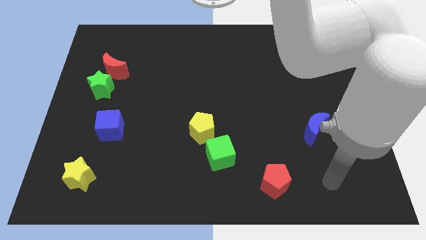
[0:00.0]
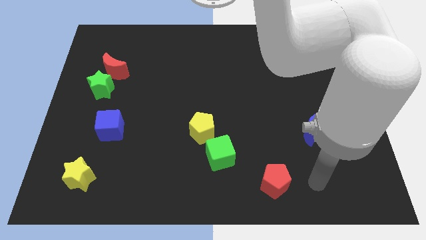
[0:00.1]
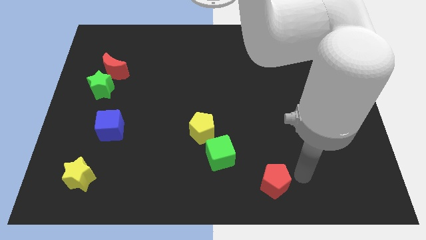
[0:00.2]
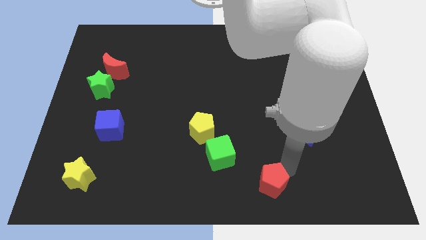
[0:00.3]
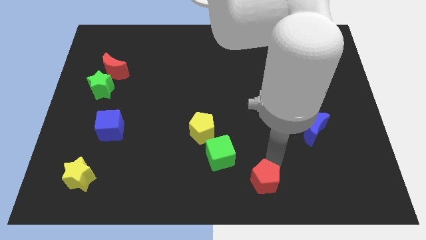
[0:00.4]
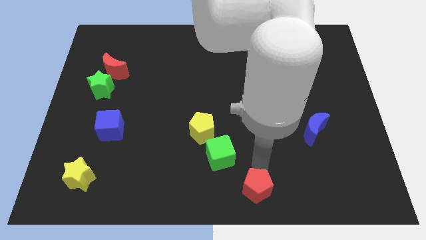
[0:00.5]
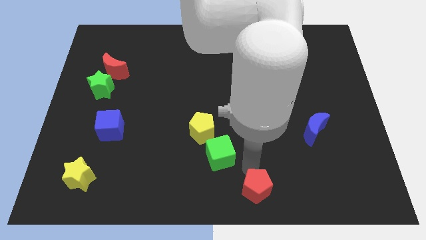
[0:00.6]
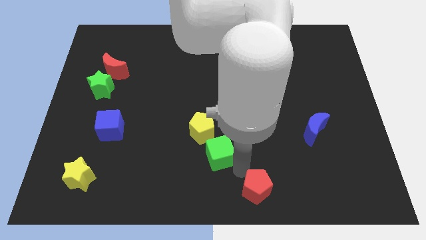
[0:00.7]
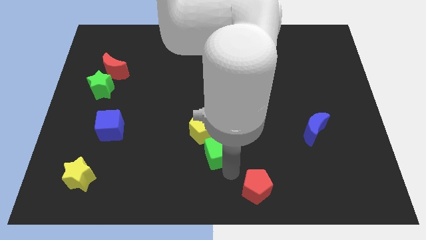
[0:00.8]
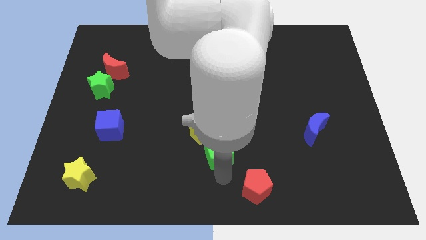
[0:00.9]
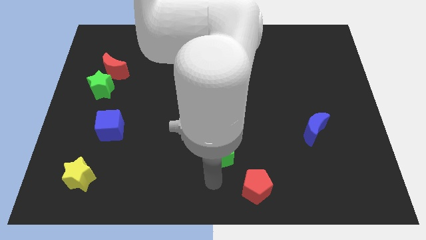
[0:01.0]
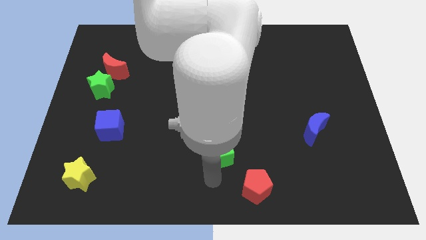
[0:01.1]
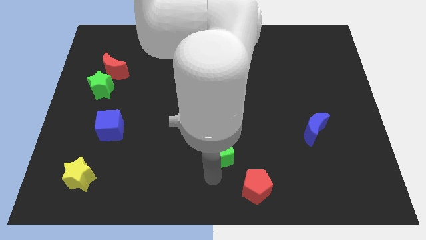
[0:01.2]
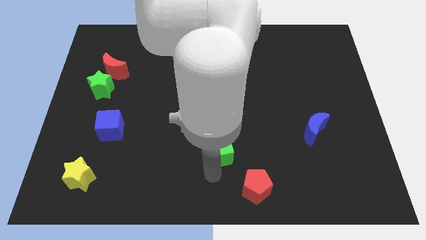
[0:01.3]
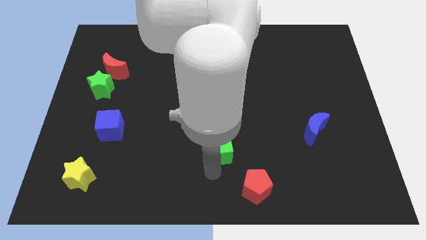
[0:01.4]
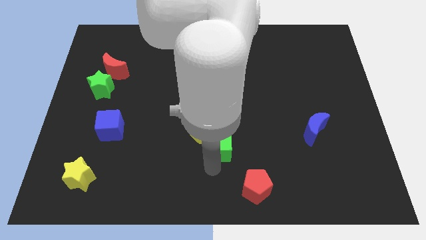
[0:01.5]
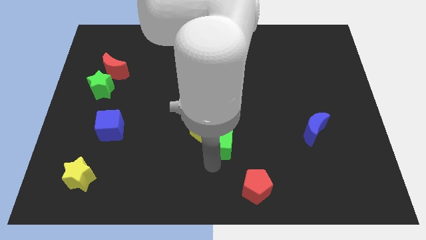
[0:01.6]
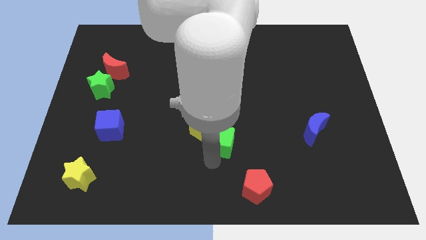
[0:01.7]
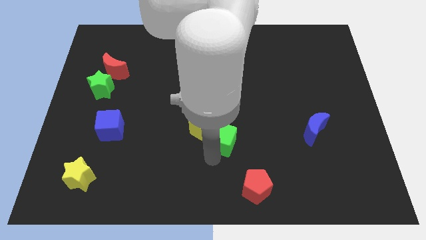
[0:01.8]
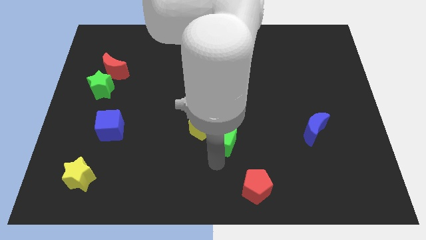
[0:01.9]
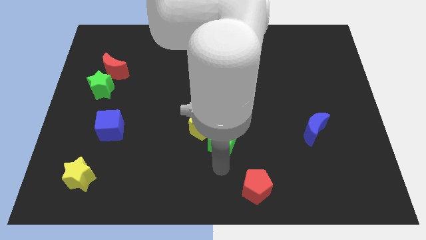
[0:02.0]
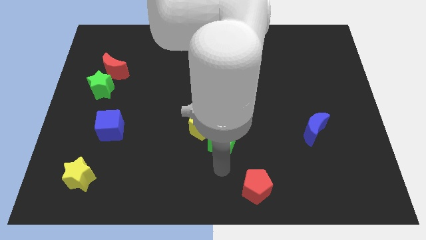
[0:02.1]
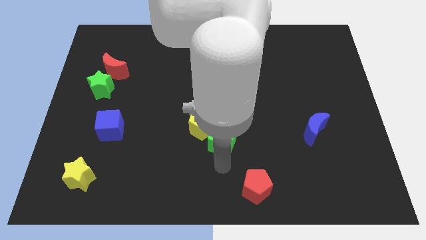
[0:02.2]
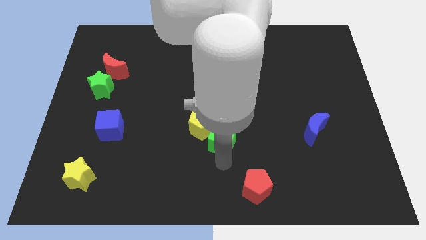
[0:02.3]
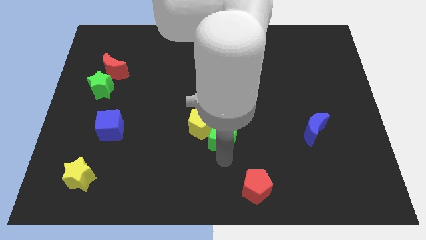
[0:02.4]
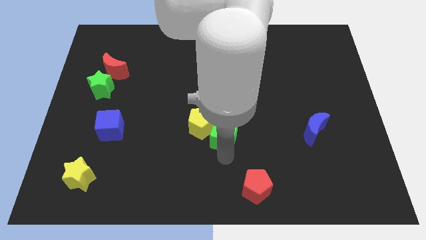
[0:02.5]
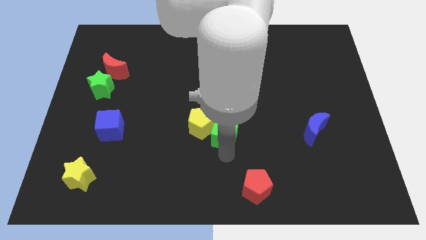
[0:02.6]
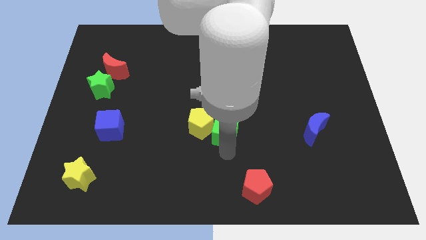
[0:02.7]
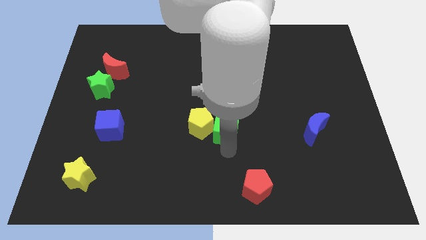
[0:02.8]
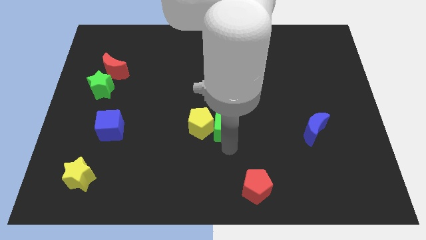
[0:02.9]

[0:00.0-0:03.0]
push the green cube somewhat upwards

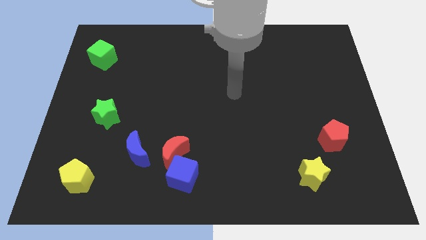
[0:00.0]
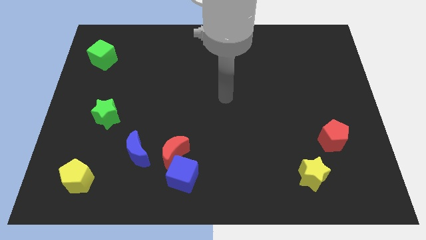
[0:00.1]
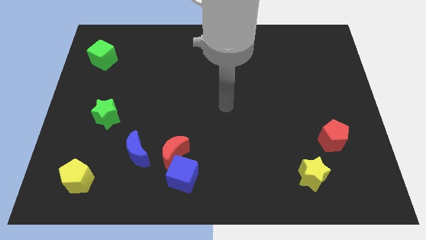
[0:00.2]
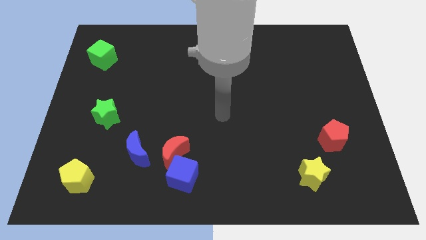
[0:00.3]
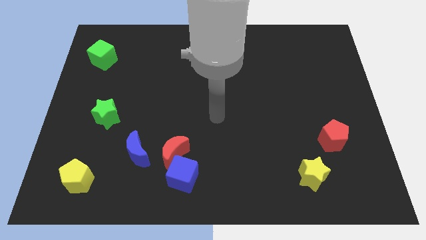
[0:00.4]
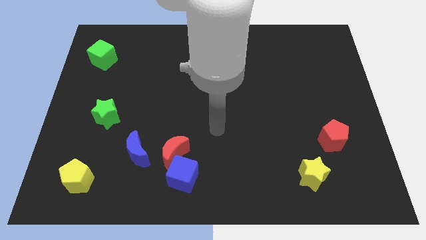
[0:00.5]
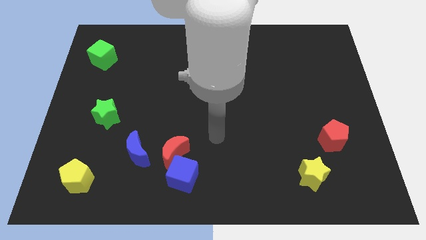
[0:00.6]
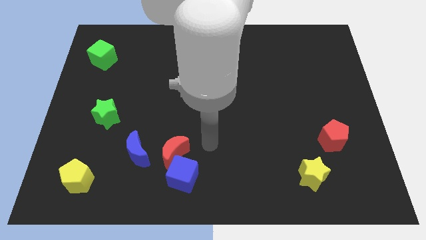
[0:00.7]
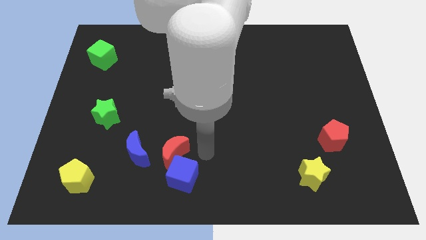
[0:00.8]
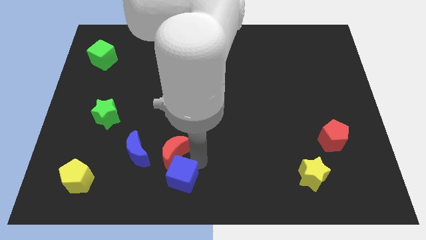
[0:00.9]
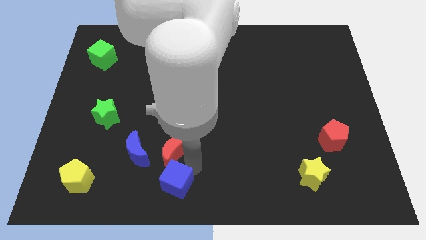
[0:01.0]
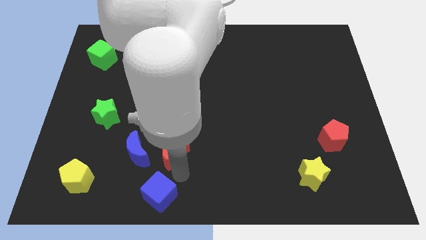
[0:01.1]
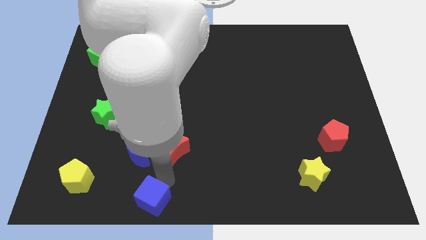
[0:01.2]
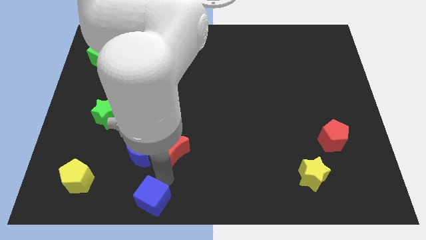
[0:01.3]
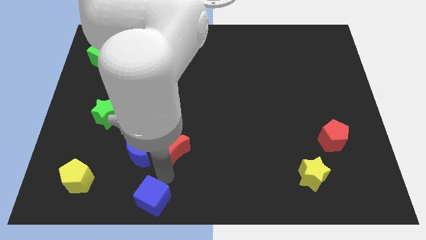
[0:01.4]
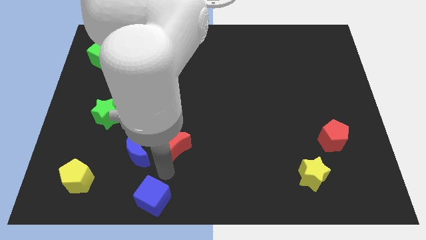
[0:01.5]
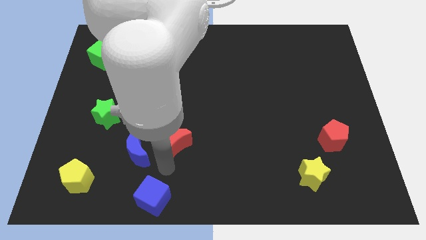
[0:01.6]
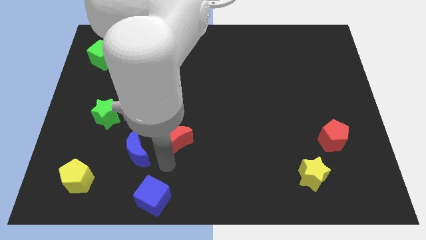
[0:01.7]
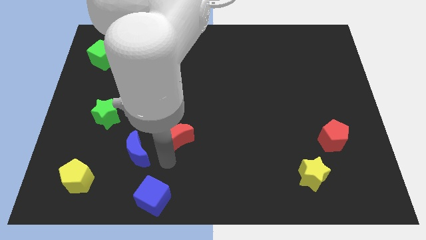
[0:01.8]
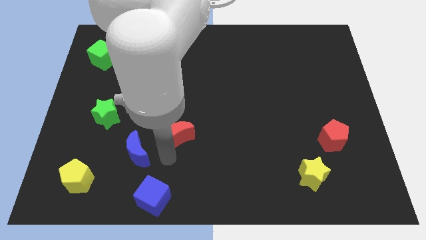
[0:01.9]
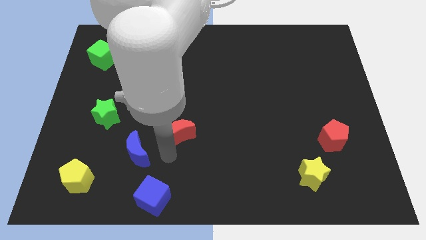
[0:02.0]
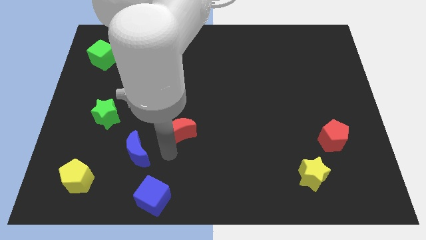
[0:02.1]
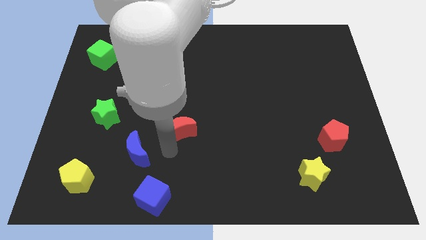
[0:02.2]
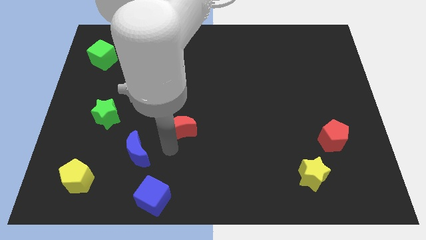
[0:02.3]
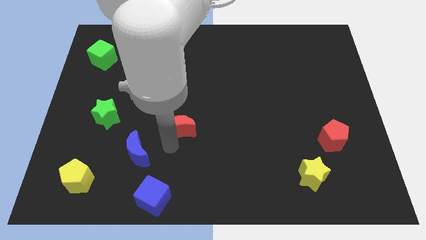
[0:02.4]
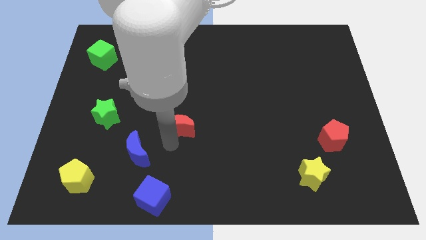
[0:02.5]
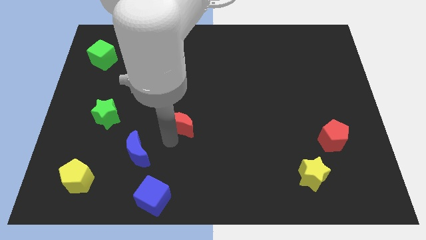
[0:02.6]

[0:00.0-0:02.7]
slightly slide the red moon up

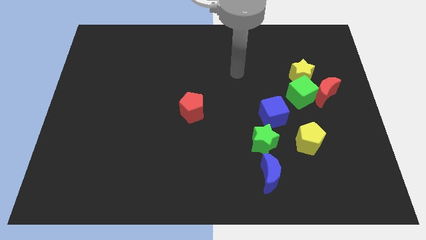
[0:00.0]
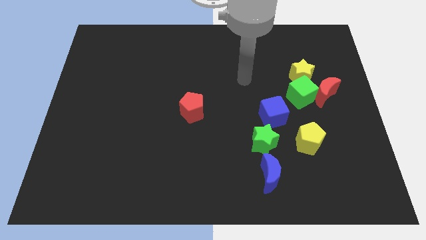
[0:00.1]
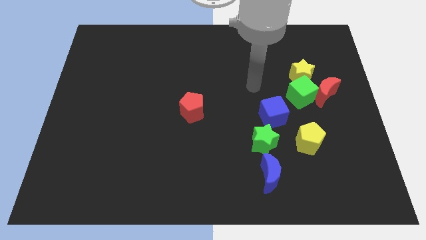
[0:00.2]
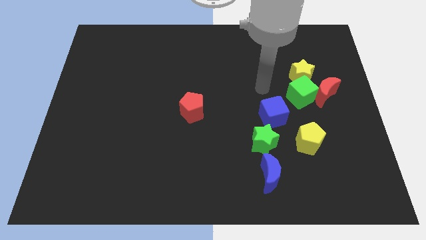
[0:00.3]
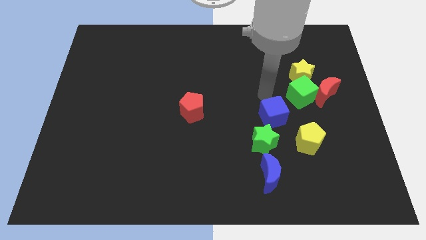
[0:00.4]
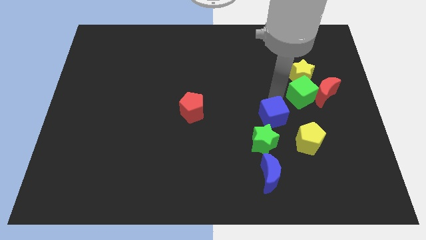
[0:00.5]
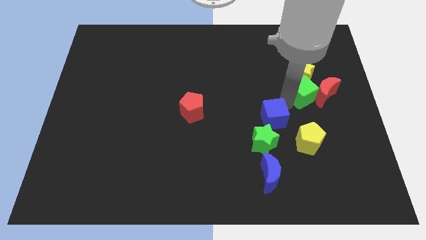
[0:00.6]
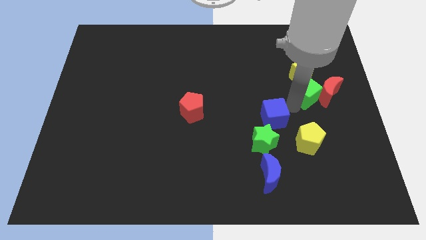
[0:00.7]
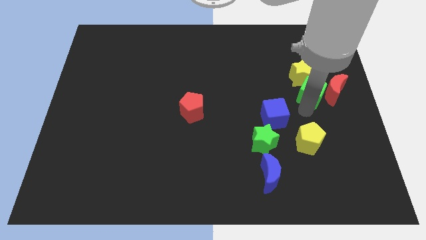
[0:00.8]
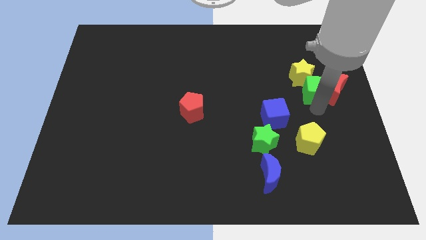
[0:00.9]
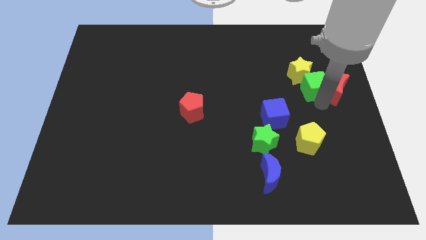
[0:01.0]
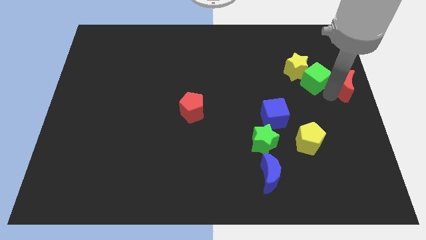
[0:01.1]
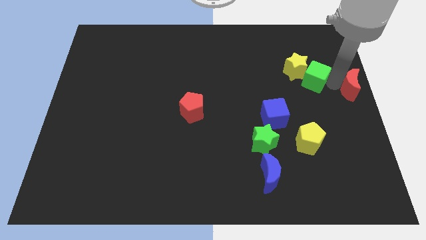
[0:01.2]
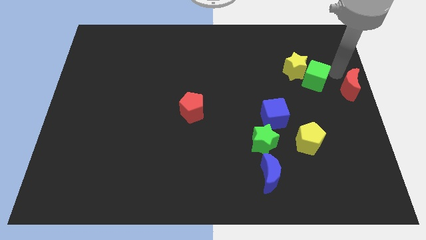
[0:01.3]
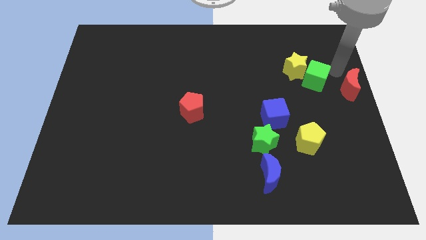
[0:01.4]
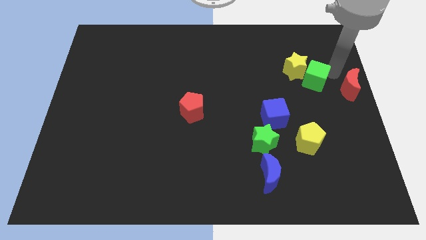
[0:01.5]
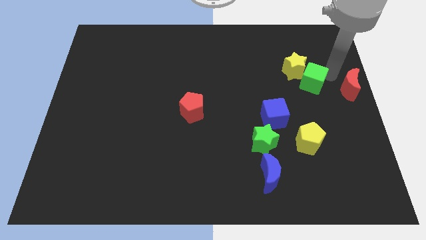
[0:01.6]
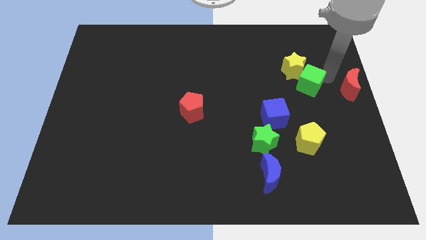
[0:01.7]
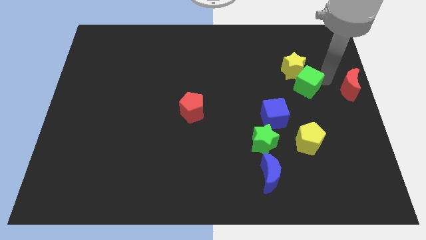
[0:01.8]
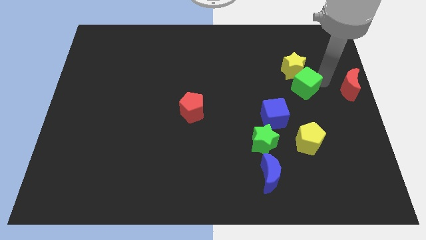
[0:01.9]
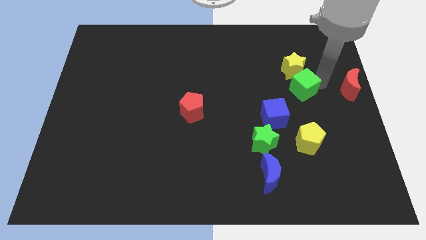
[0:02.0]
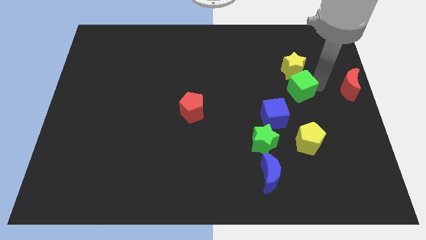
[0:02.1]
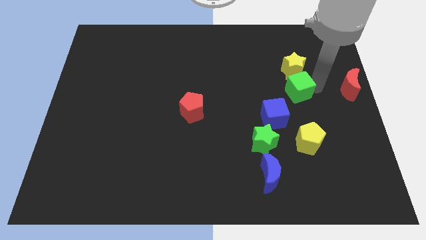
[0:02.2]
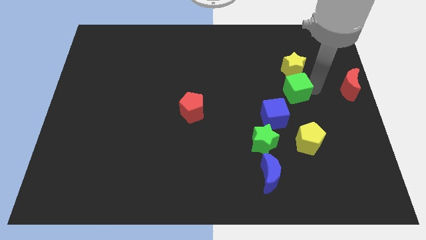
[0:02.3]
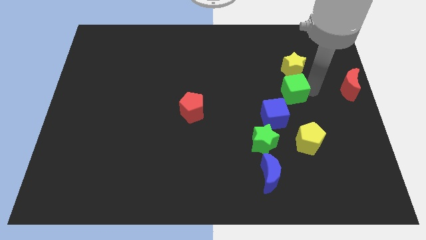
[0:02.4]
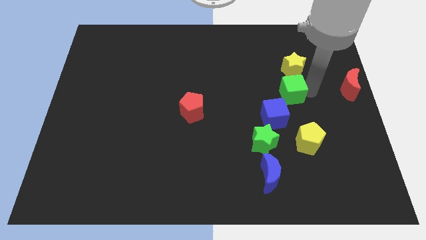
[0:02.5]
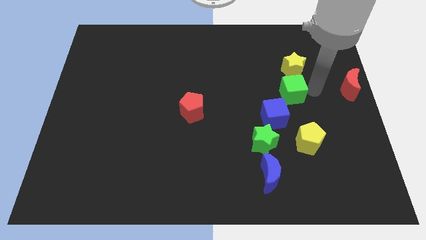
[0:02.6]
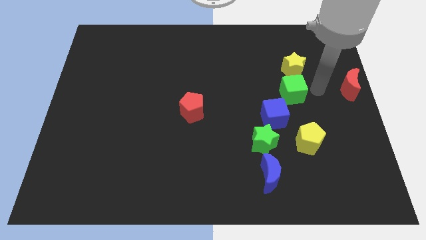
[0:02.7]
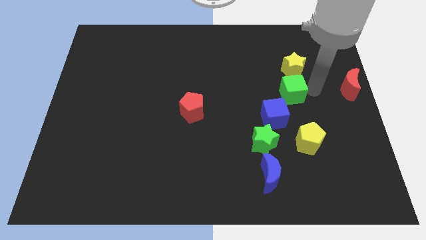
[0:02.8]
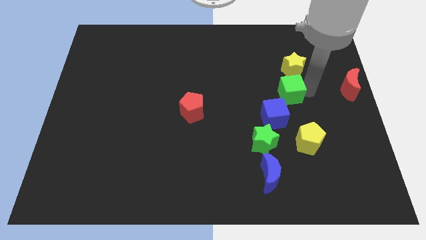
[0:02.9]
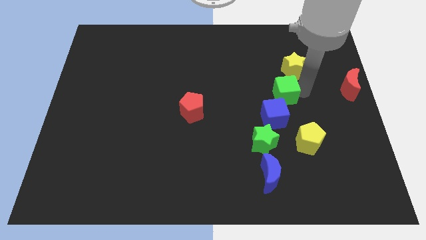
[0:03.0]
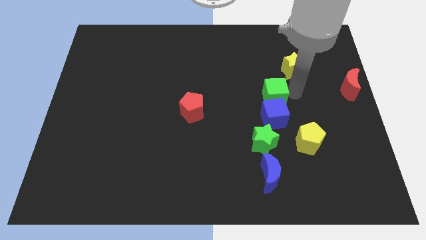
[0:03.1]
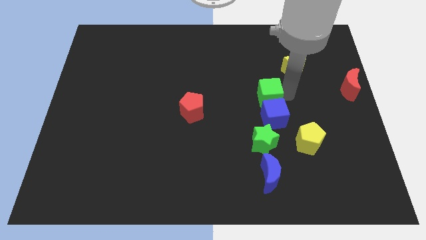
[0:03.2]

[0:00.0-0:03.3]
slightly slide the green cube left
